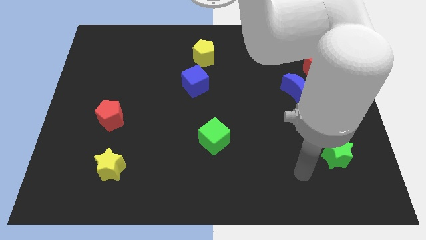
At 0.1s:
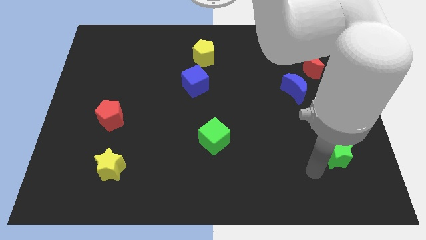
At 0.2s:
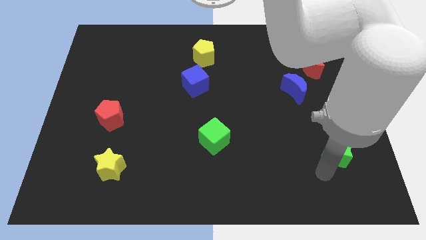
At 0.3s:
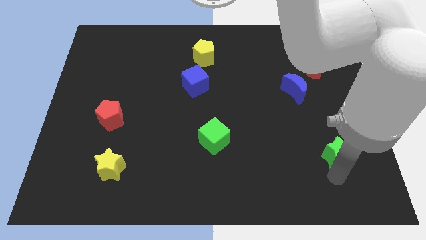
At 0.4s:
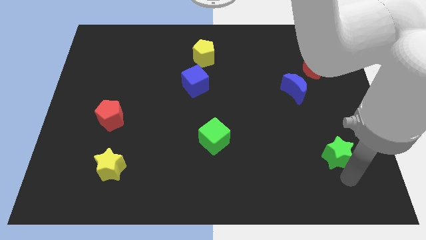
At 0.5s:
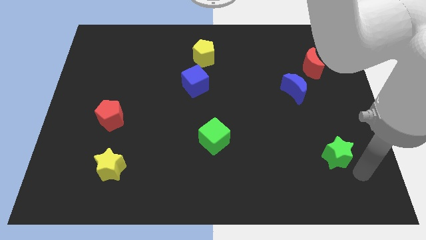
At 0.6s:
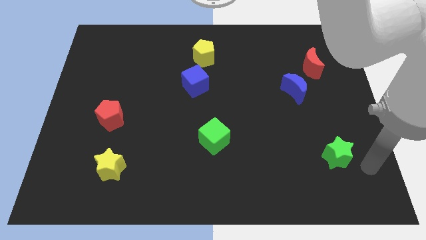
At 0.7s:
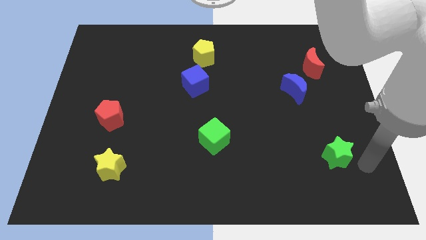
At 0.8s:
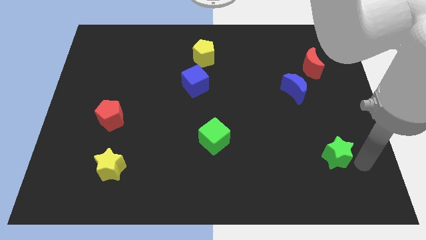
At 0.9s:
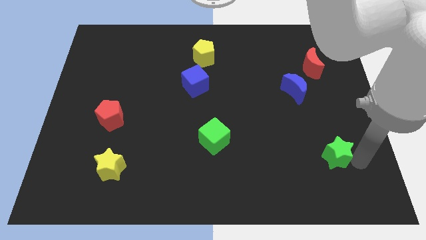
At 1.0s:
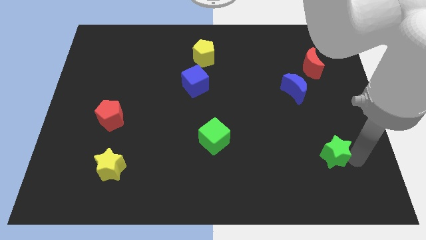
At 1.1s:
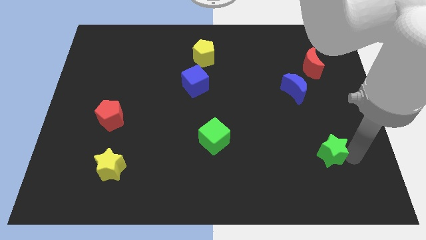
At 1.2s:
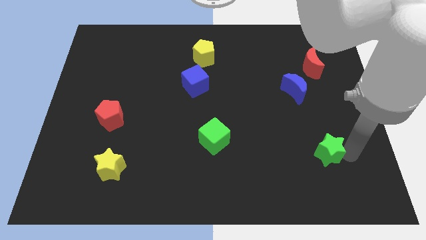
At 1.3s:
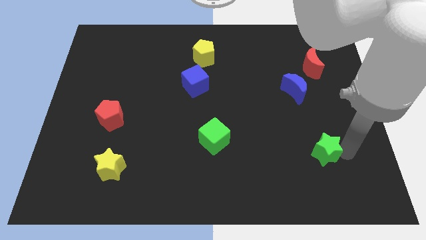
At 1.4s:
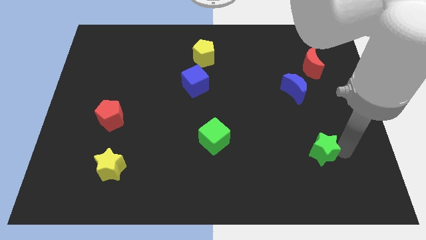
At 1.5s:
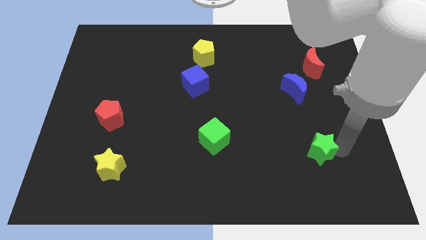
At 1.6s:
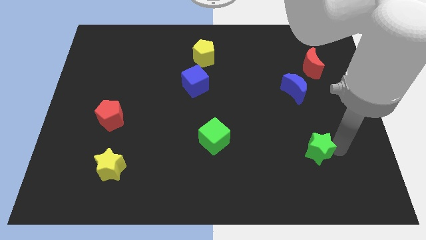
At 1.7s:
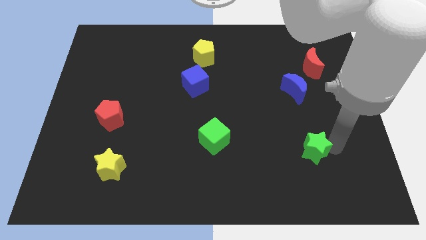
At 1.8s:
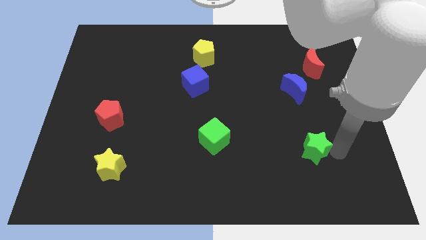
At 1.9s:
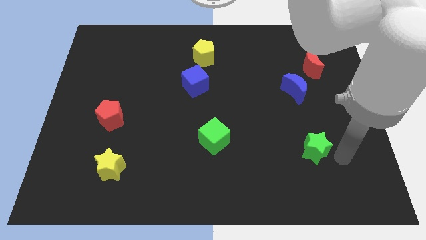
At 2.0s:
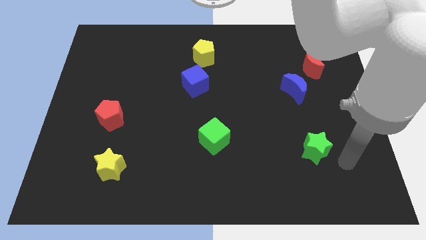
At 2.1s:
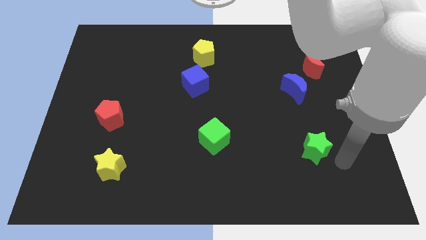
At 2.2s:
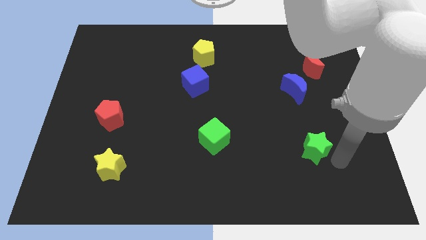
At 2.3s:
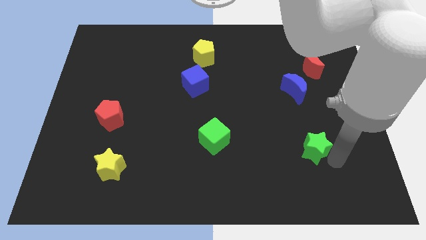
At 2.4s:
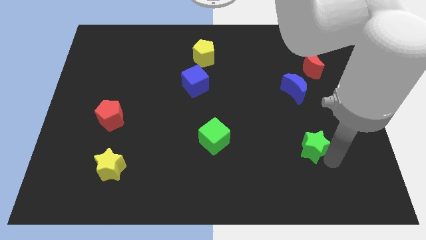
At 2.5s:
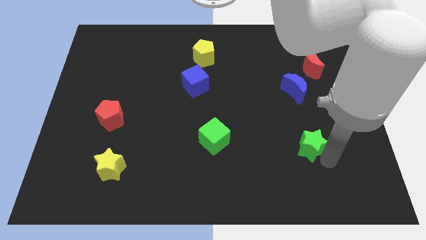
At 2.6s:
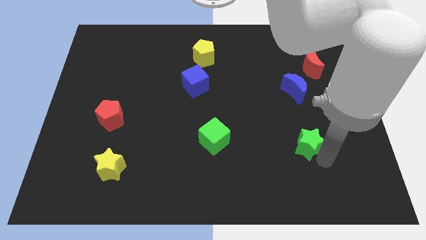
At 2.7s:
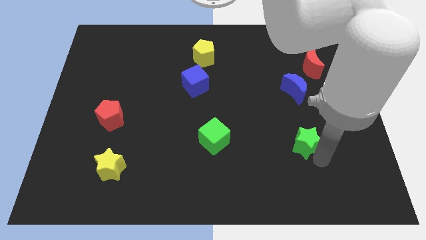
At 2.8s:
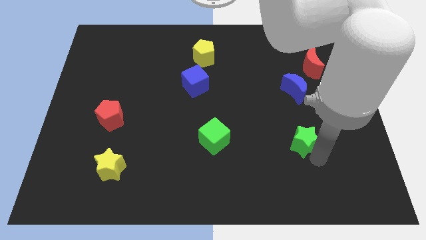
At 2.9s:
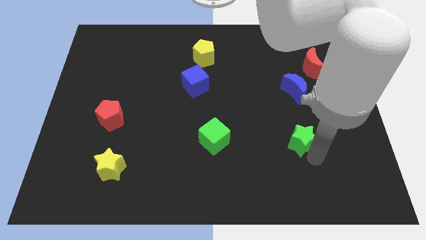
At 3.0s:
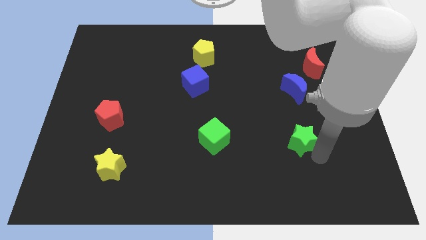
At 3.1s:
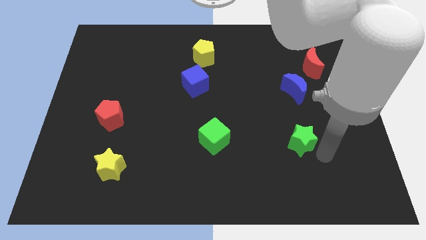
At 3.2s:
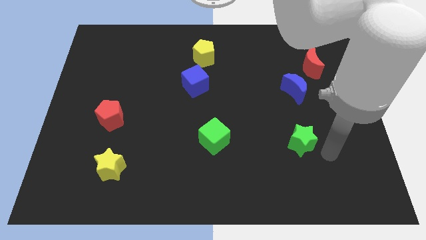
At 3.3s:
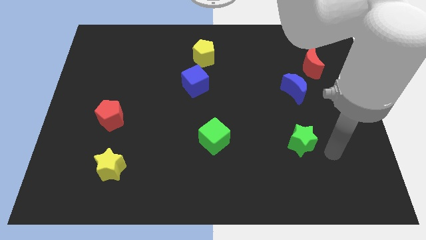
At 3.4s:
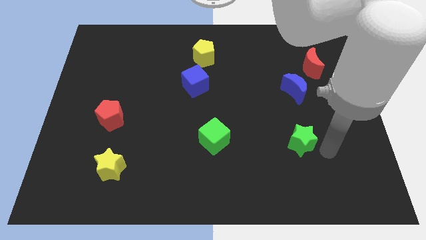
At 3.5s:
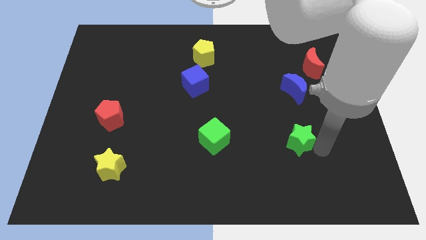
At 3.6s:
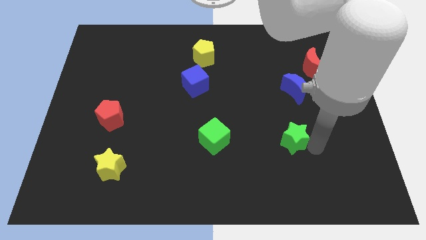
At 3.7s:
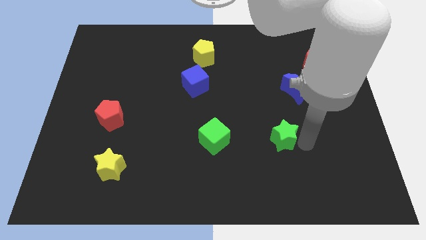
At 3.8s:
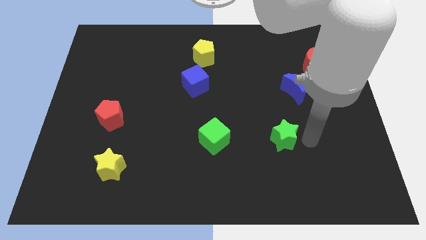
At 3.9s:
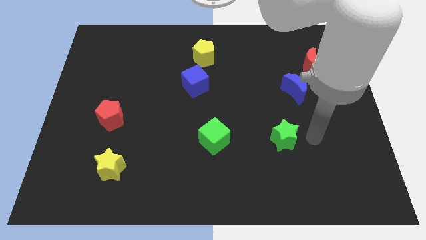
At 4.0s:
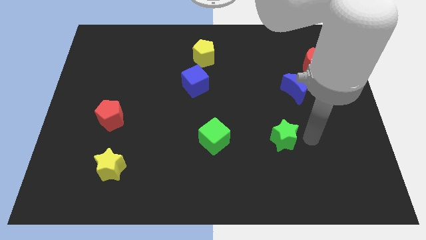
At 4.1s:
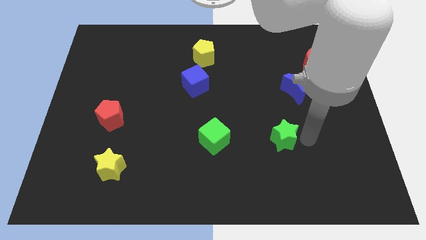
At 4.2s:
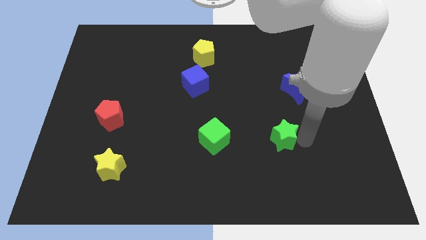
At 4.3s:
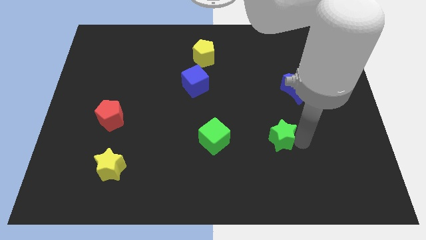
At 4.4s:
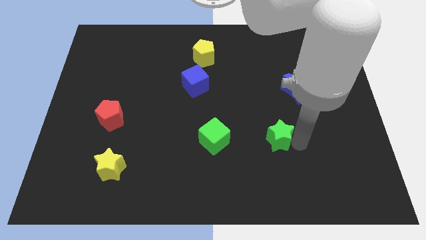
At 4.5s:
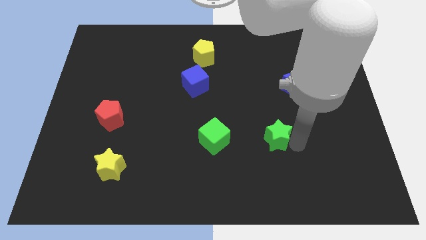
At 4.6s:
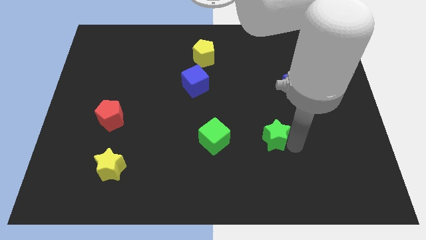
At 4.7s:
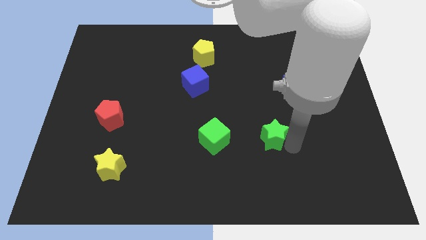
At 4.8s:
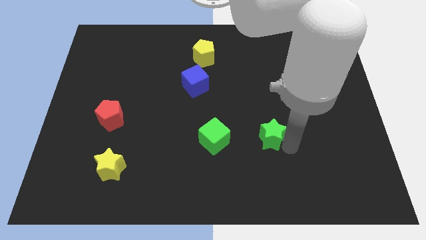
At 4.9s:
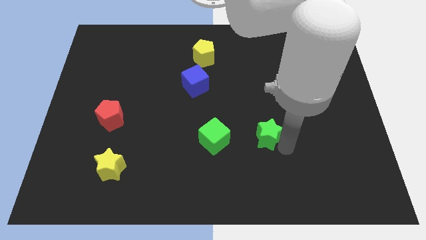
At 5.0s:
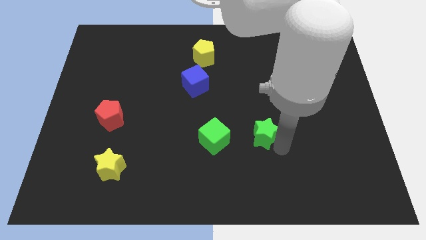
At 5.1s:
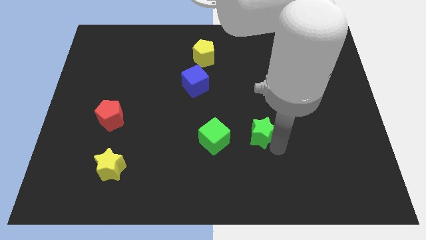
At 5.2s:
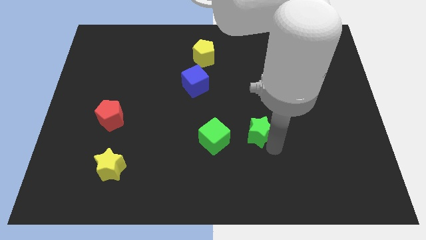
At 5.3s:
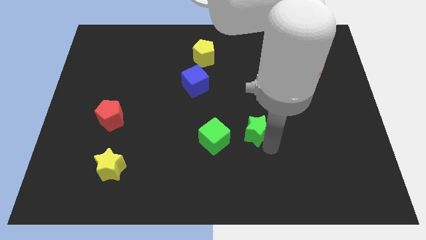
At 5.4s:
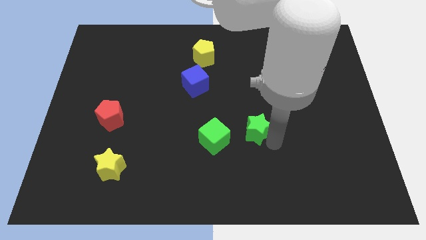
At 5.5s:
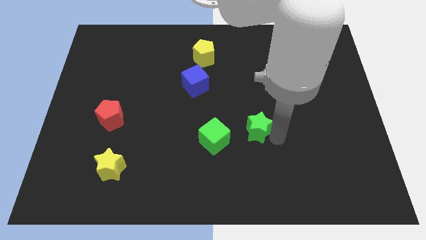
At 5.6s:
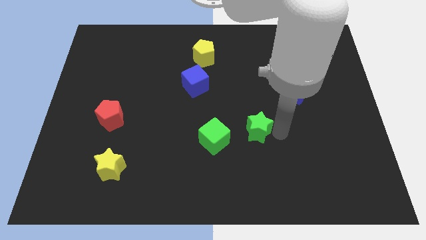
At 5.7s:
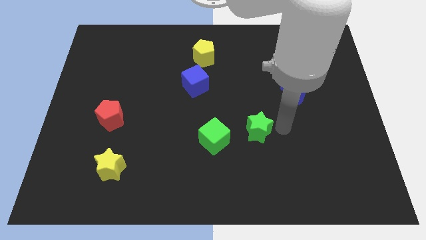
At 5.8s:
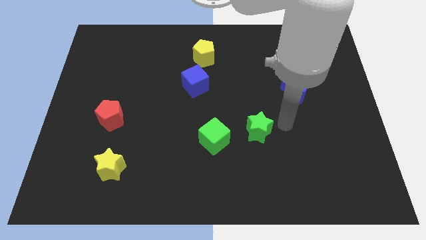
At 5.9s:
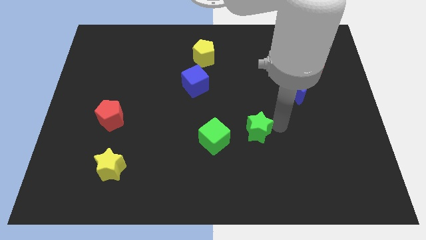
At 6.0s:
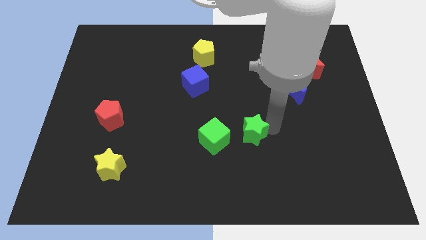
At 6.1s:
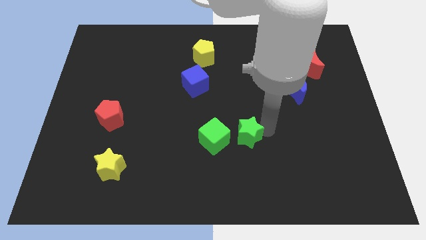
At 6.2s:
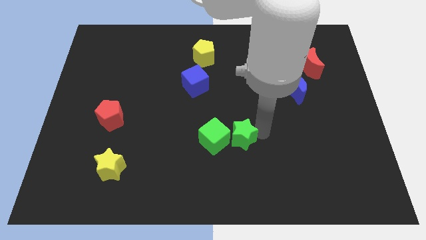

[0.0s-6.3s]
put the green star close to the green cube

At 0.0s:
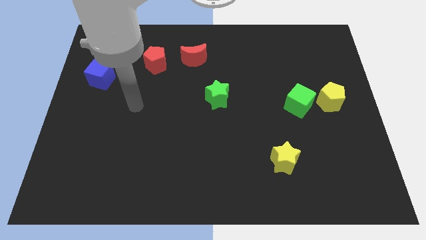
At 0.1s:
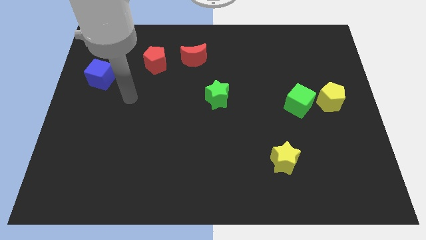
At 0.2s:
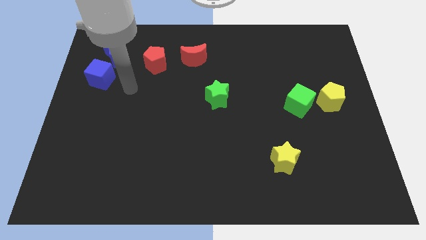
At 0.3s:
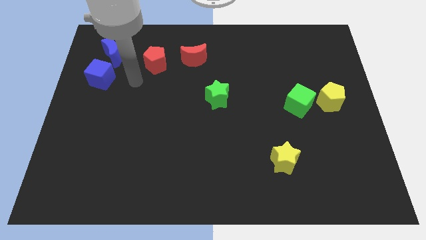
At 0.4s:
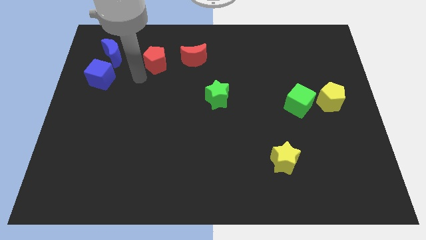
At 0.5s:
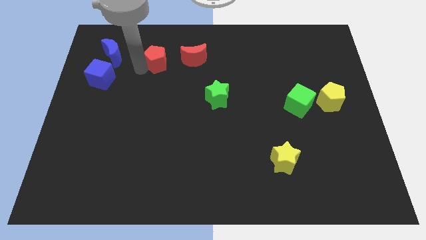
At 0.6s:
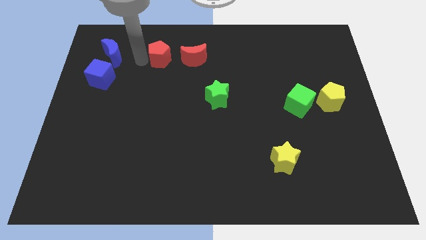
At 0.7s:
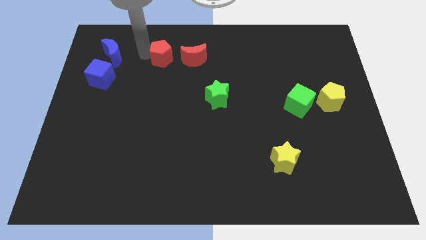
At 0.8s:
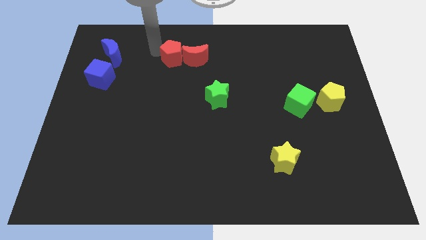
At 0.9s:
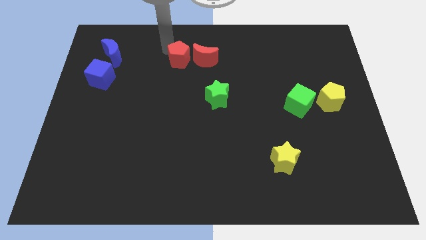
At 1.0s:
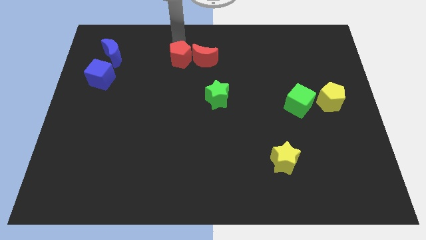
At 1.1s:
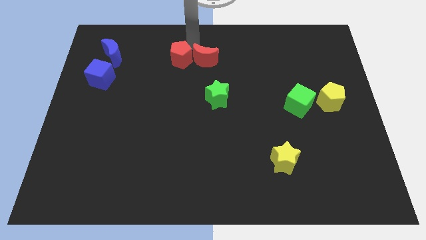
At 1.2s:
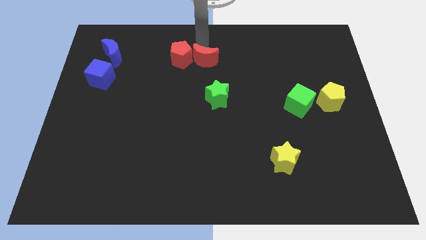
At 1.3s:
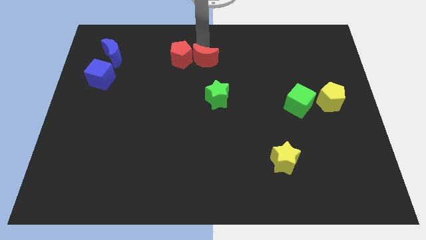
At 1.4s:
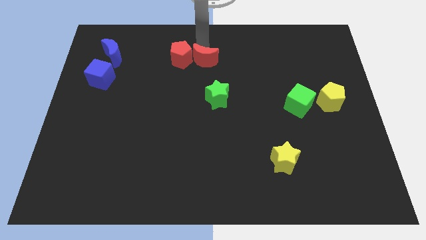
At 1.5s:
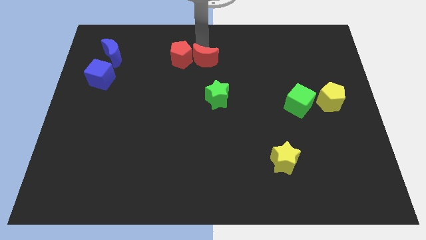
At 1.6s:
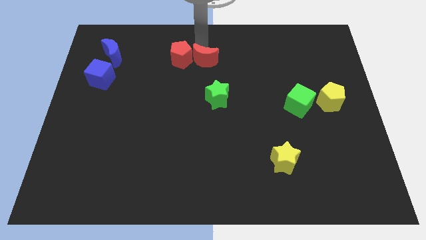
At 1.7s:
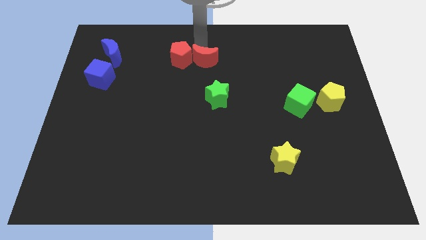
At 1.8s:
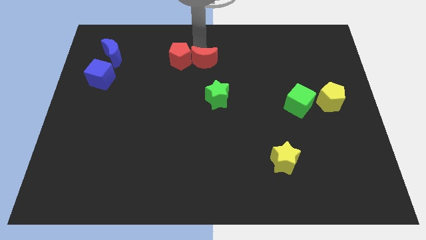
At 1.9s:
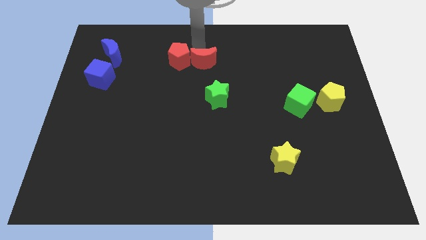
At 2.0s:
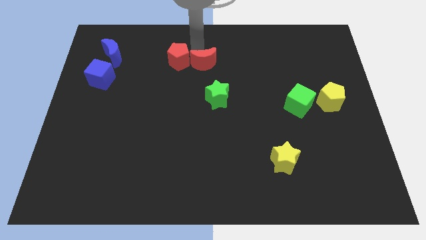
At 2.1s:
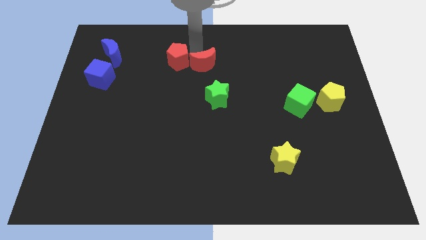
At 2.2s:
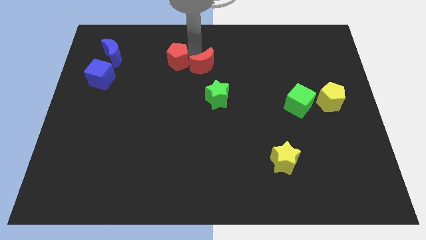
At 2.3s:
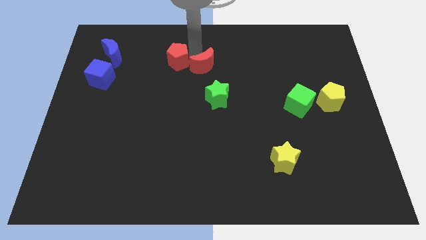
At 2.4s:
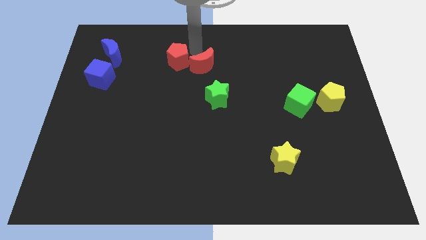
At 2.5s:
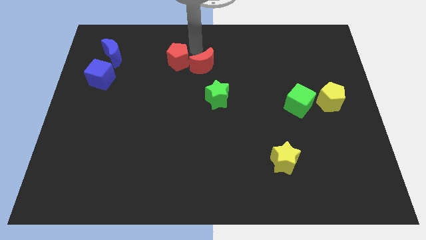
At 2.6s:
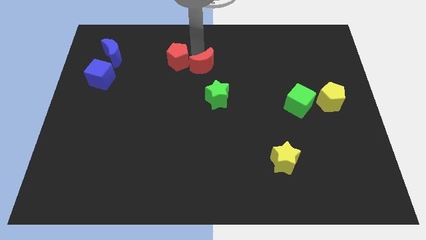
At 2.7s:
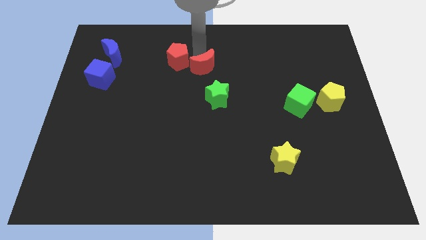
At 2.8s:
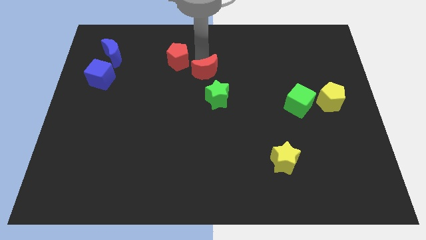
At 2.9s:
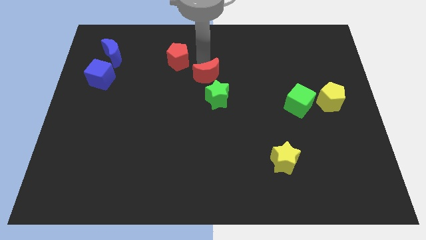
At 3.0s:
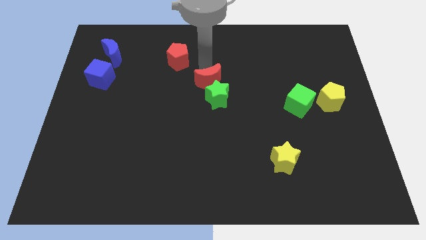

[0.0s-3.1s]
move the red moon to the green star
